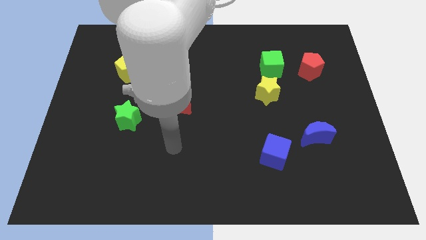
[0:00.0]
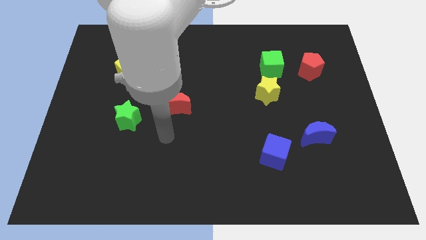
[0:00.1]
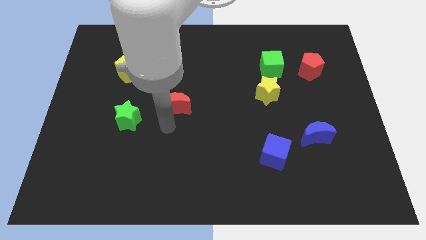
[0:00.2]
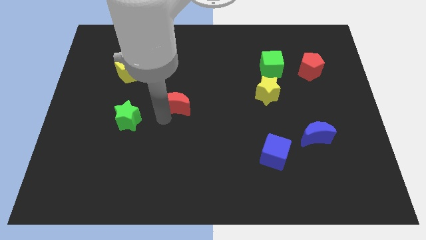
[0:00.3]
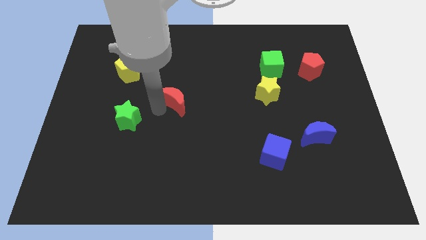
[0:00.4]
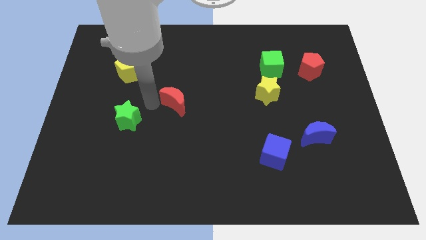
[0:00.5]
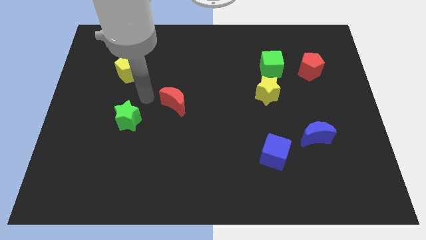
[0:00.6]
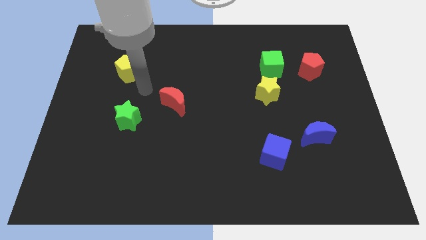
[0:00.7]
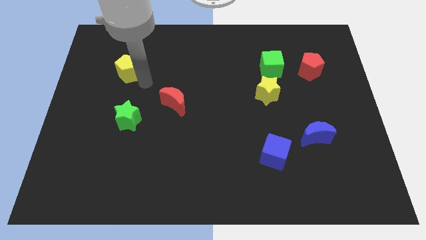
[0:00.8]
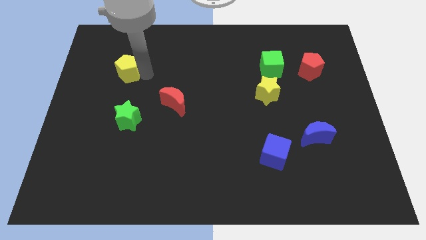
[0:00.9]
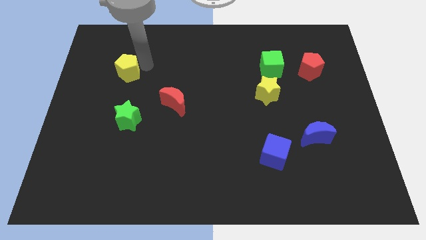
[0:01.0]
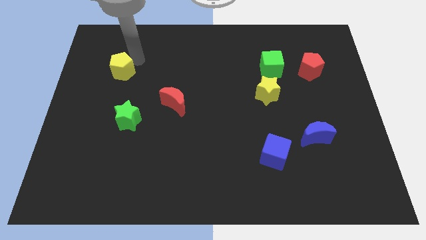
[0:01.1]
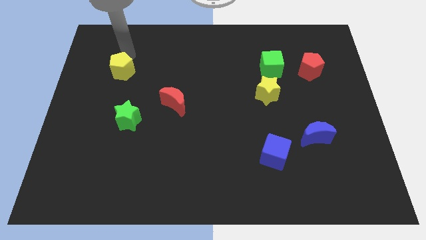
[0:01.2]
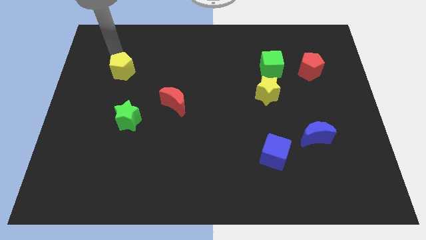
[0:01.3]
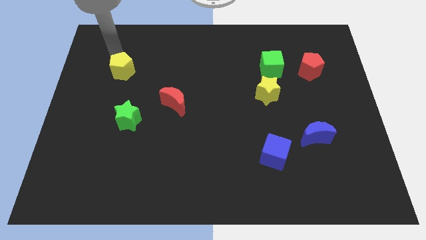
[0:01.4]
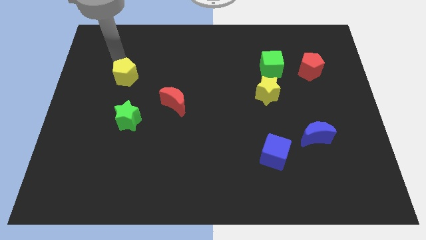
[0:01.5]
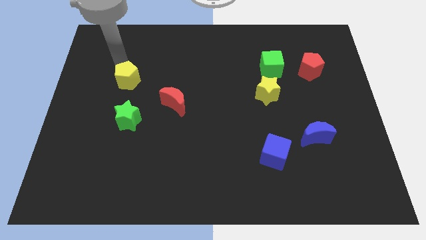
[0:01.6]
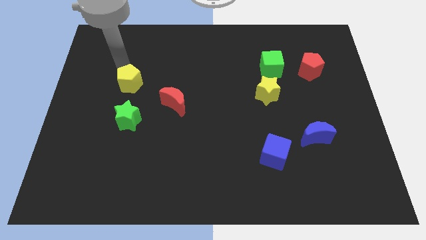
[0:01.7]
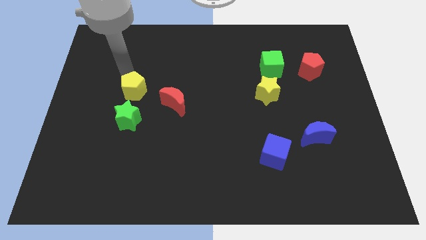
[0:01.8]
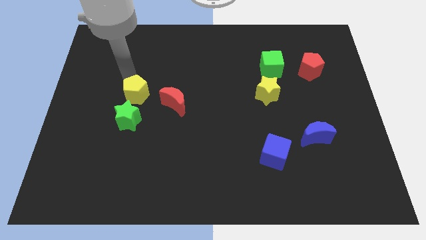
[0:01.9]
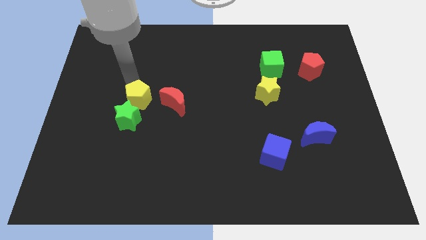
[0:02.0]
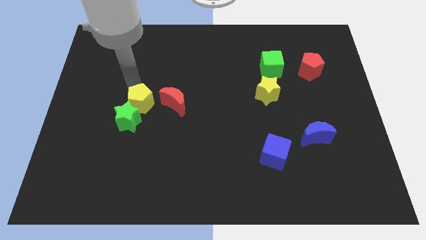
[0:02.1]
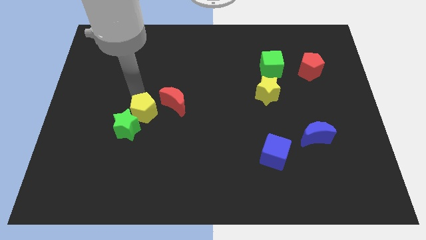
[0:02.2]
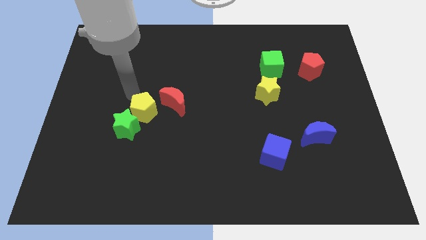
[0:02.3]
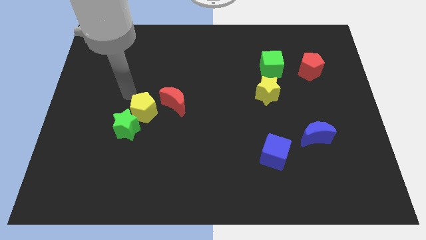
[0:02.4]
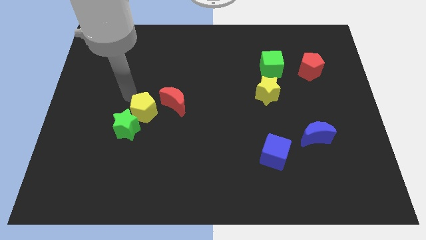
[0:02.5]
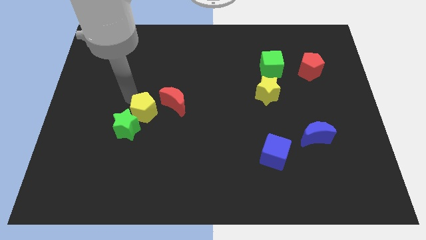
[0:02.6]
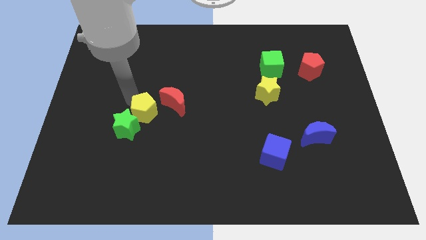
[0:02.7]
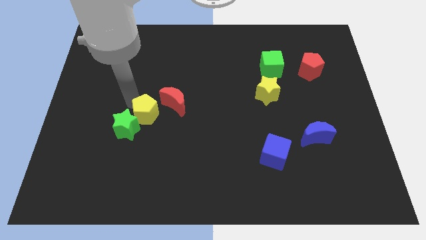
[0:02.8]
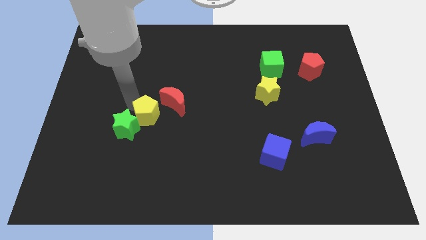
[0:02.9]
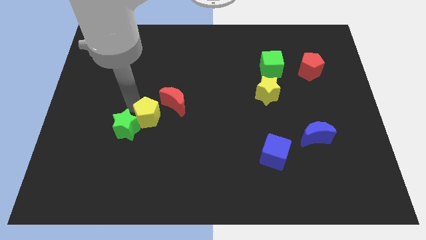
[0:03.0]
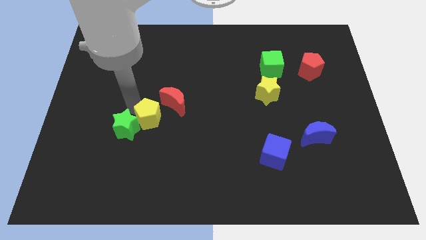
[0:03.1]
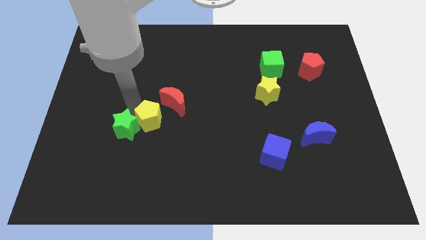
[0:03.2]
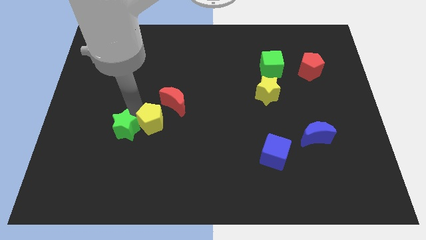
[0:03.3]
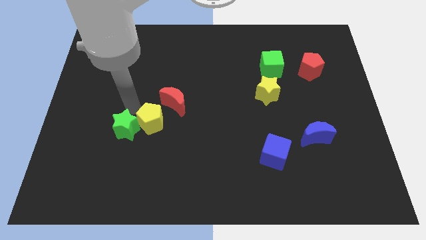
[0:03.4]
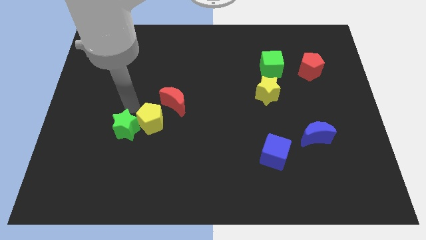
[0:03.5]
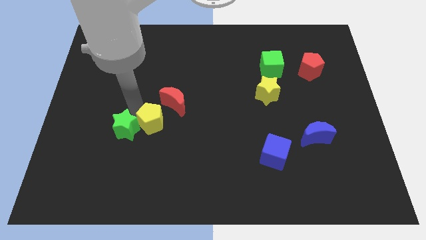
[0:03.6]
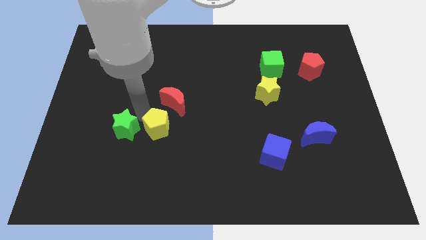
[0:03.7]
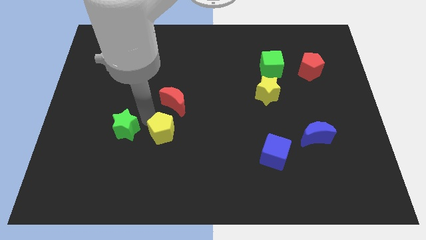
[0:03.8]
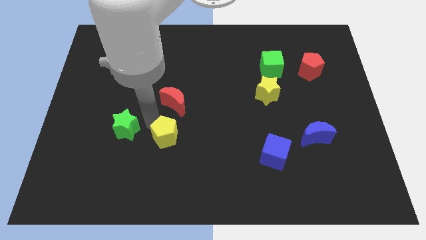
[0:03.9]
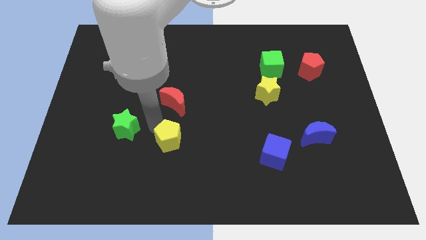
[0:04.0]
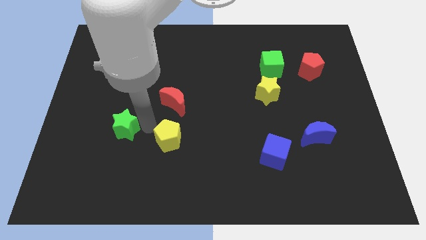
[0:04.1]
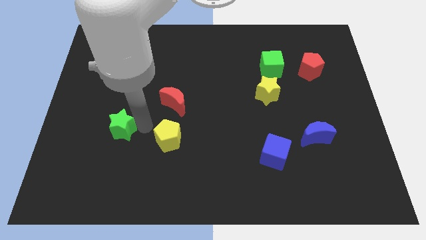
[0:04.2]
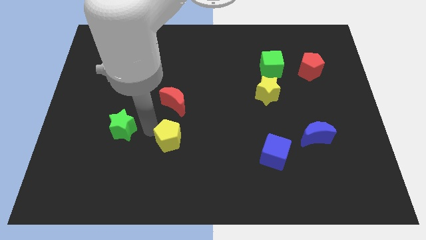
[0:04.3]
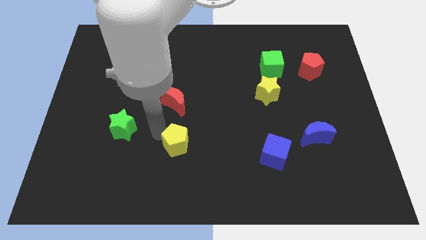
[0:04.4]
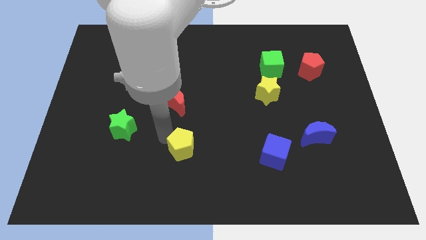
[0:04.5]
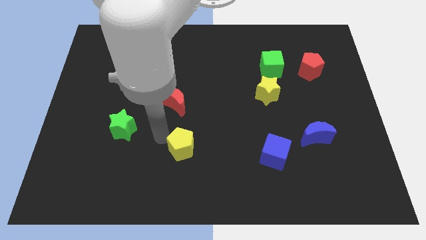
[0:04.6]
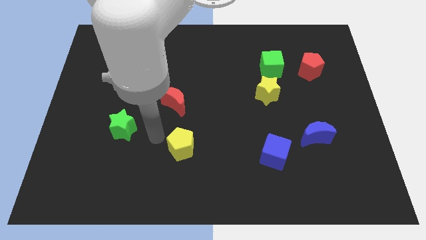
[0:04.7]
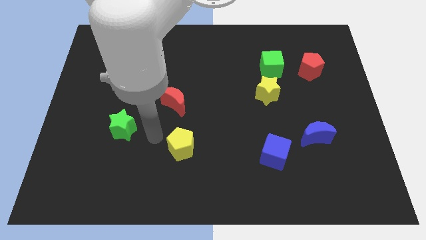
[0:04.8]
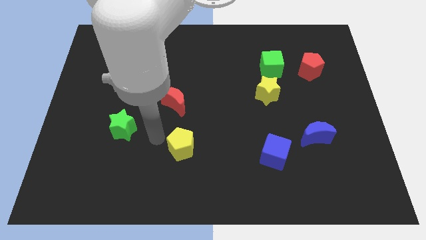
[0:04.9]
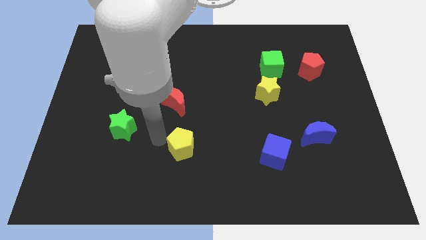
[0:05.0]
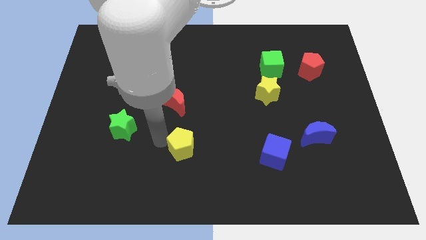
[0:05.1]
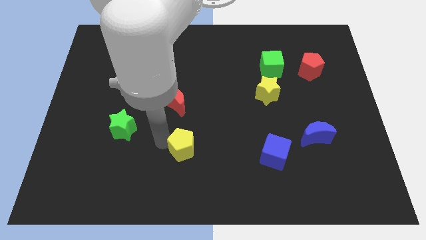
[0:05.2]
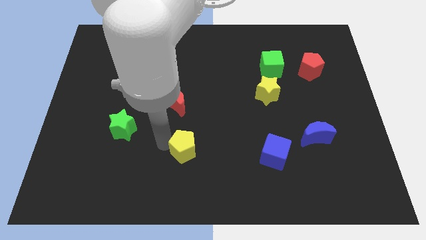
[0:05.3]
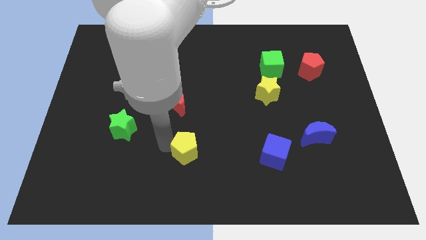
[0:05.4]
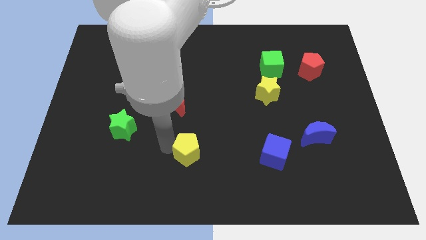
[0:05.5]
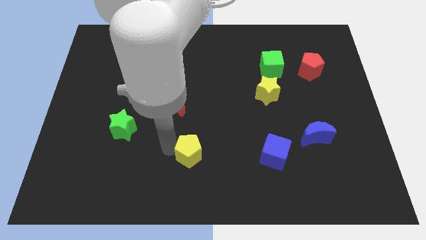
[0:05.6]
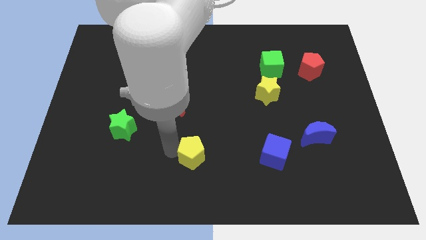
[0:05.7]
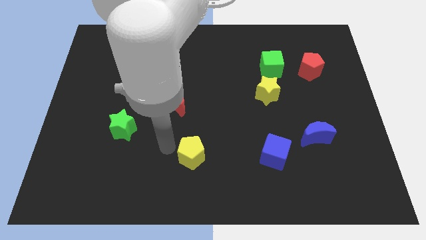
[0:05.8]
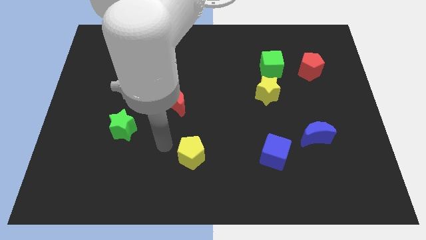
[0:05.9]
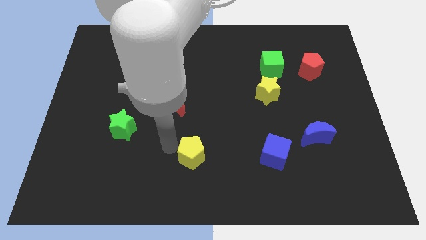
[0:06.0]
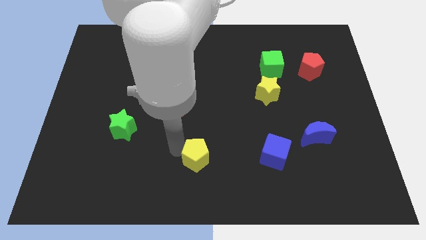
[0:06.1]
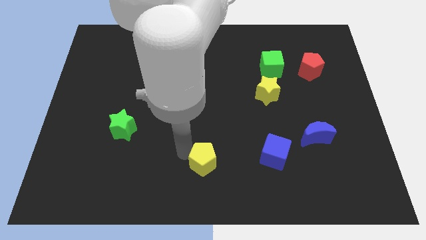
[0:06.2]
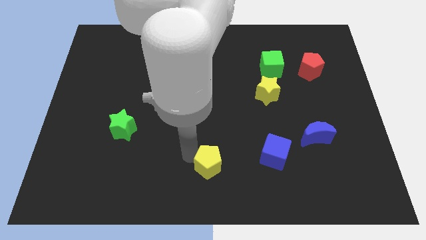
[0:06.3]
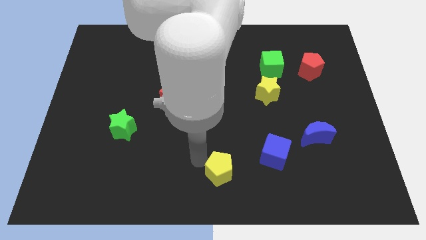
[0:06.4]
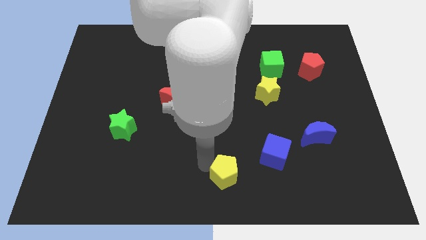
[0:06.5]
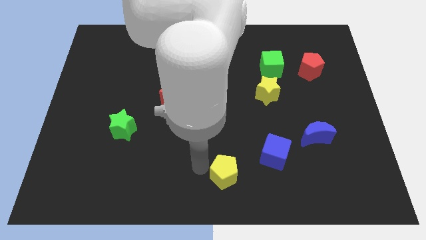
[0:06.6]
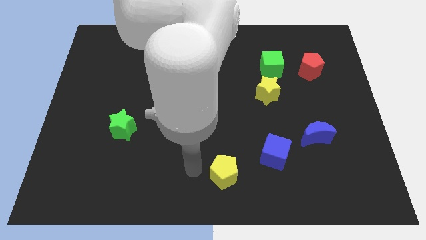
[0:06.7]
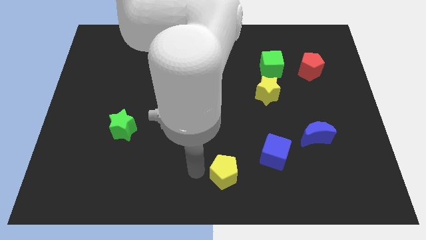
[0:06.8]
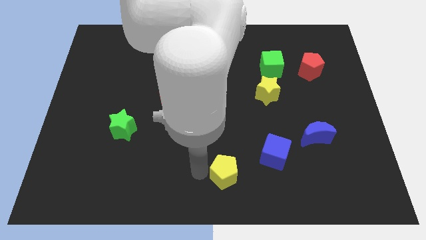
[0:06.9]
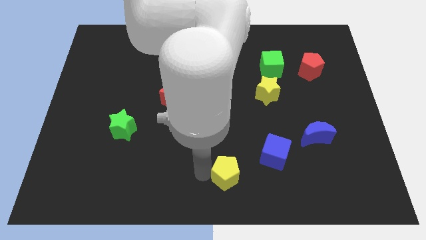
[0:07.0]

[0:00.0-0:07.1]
slide the yellow pentagon to the bottom left of the blue cube
